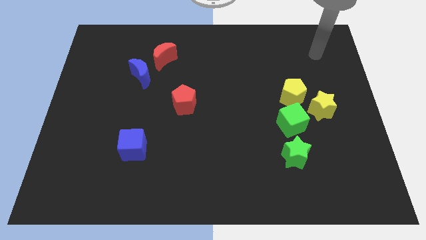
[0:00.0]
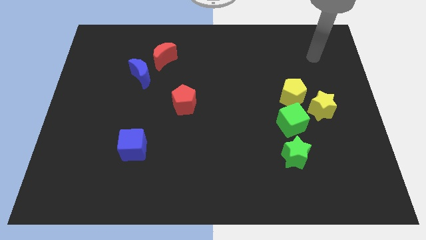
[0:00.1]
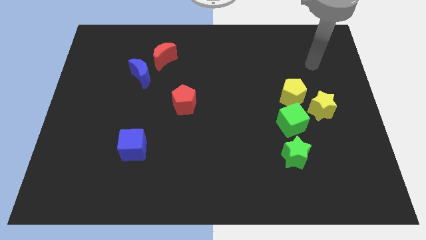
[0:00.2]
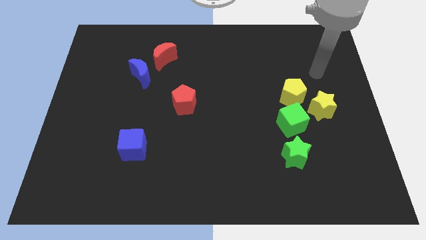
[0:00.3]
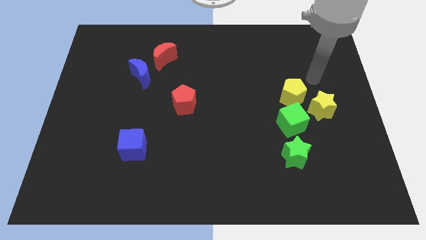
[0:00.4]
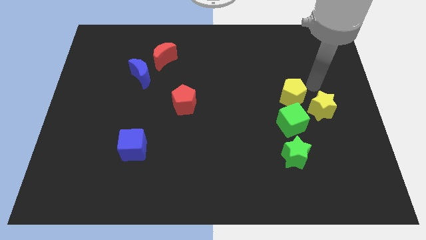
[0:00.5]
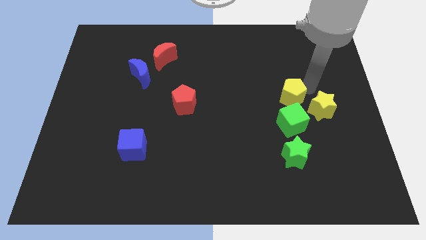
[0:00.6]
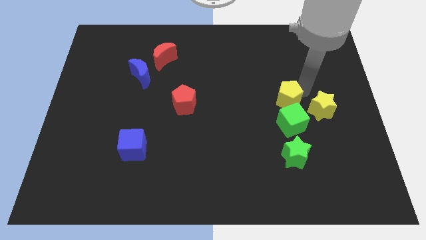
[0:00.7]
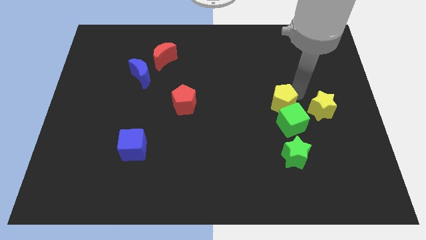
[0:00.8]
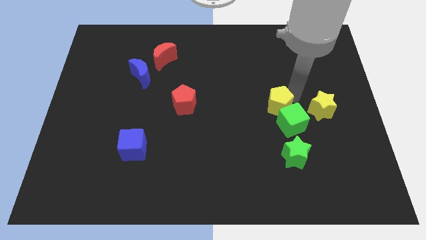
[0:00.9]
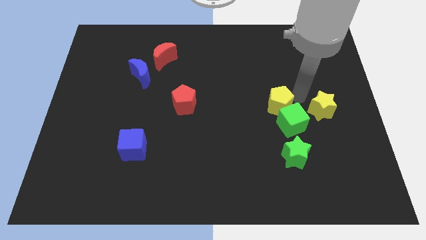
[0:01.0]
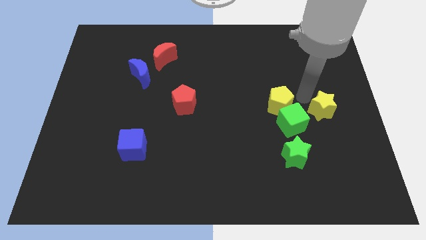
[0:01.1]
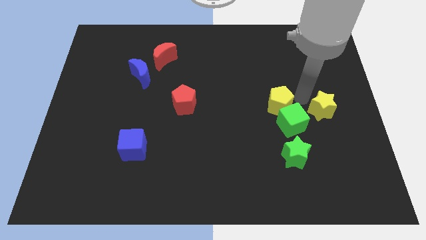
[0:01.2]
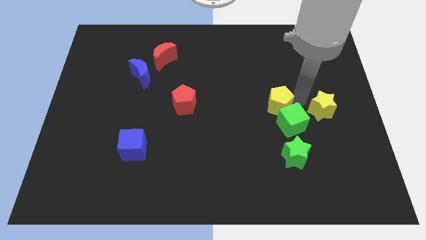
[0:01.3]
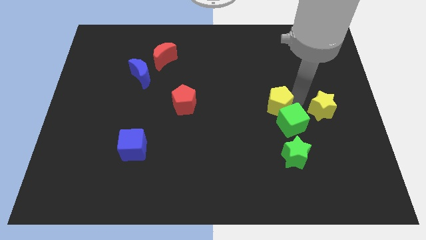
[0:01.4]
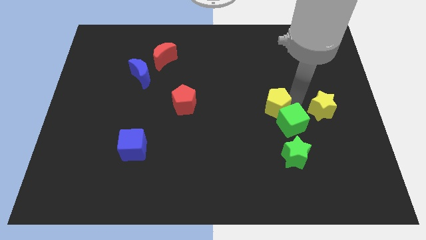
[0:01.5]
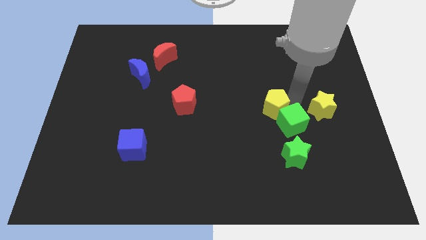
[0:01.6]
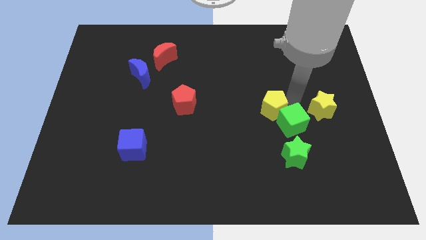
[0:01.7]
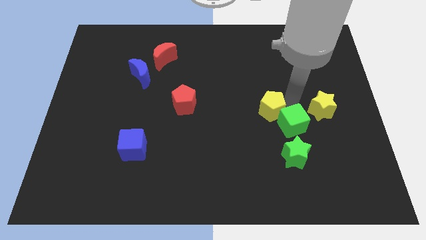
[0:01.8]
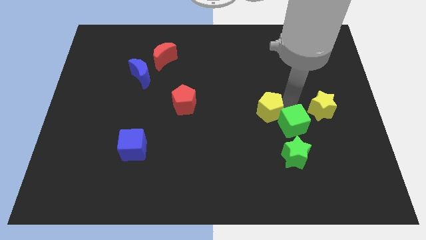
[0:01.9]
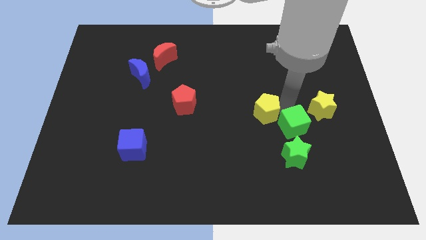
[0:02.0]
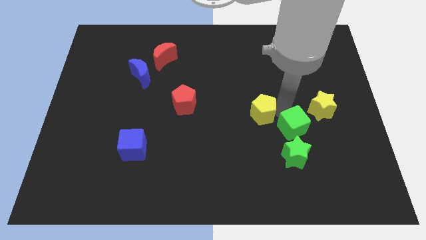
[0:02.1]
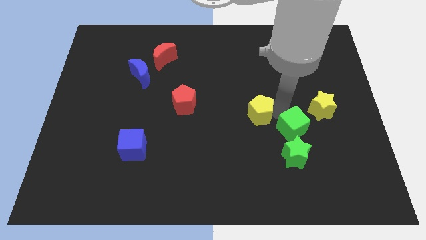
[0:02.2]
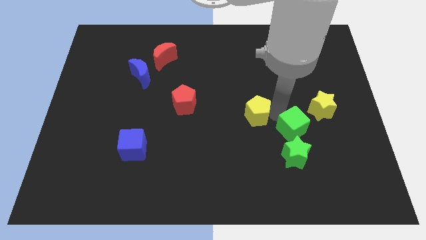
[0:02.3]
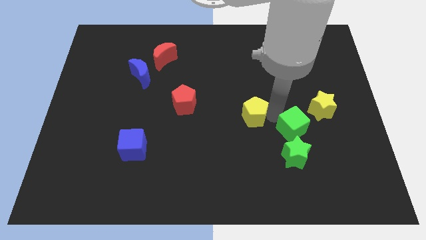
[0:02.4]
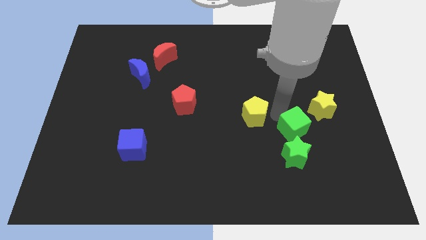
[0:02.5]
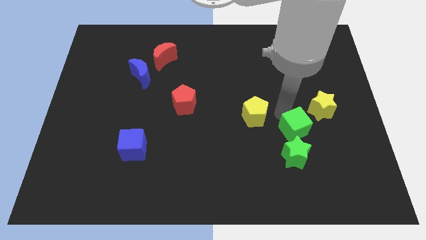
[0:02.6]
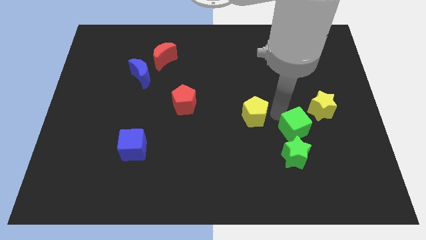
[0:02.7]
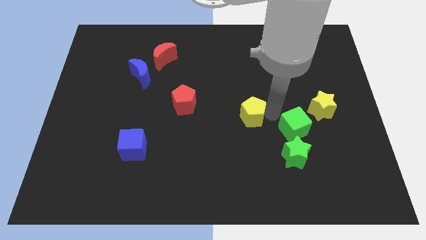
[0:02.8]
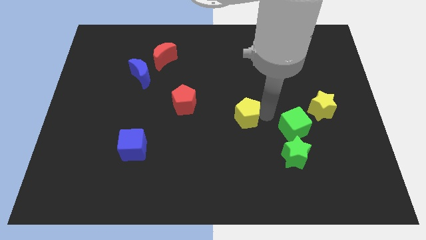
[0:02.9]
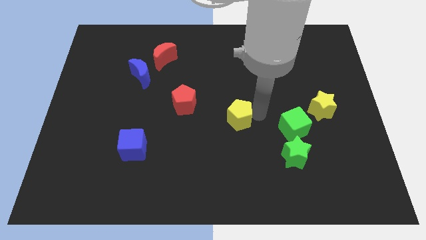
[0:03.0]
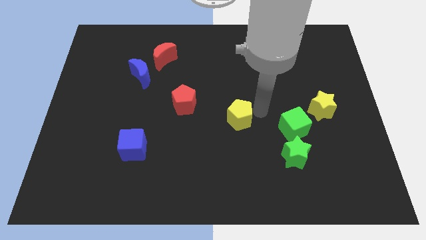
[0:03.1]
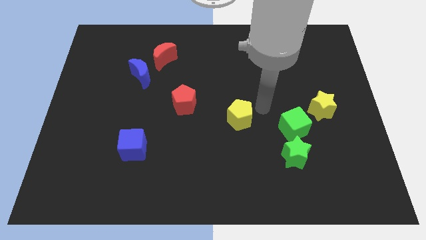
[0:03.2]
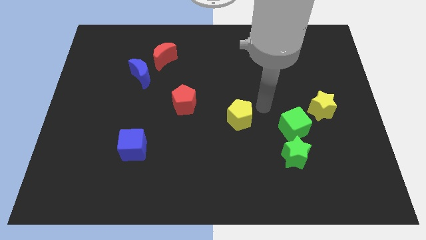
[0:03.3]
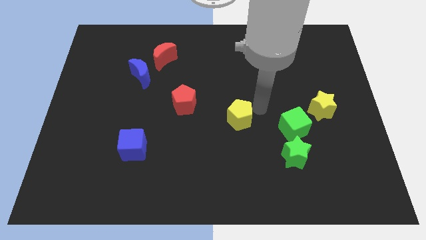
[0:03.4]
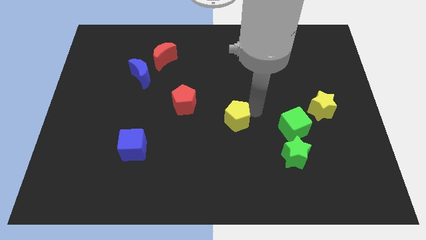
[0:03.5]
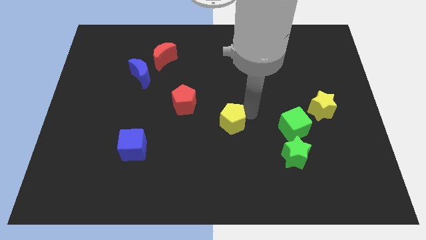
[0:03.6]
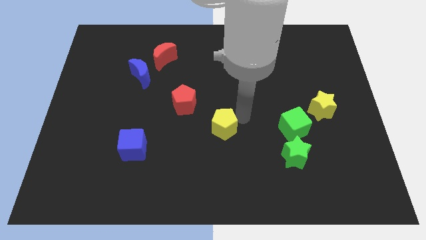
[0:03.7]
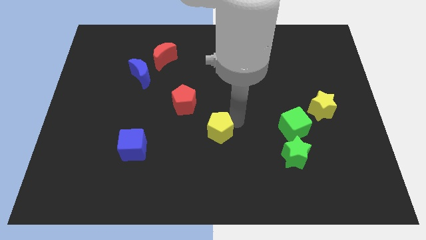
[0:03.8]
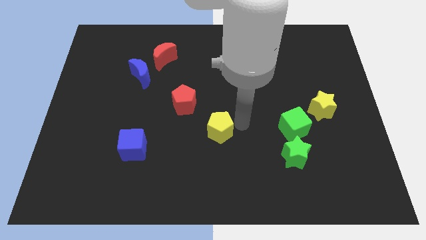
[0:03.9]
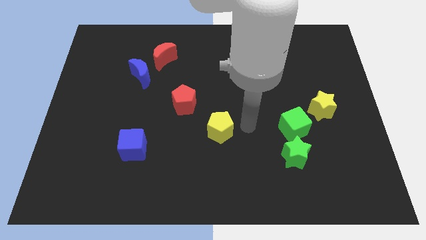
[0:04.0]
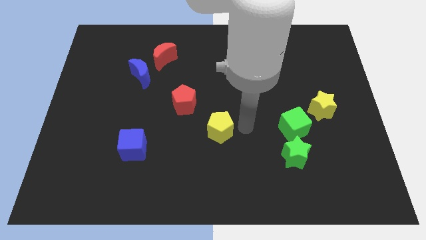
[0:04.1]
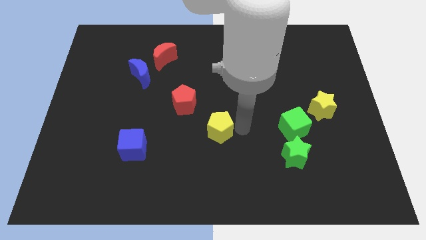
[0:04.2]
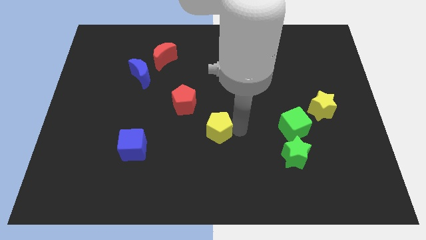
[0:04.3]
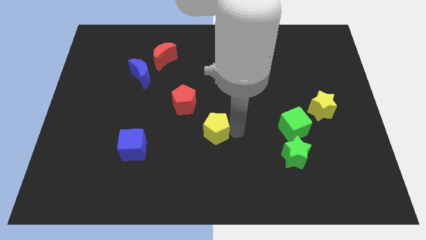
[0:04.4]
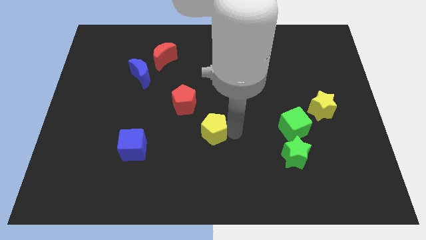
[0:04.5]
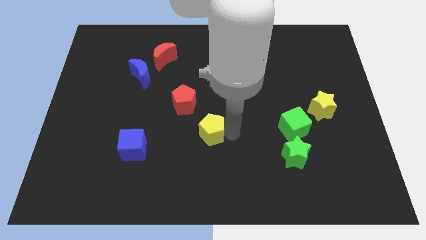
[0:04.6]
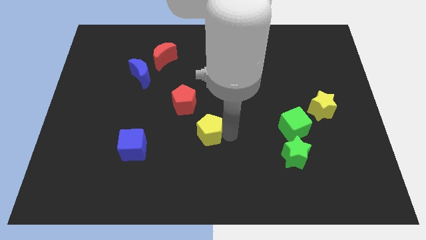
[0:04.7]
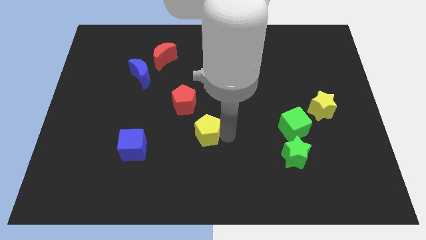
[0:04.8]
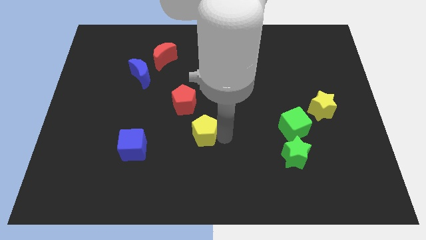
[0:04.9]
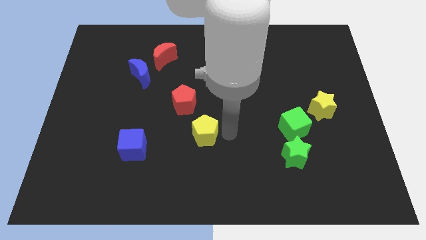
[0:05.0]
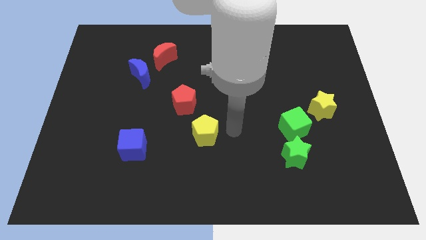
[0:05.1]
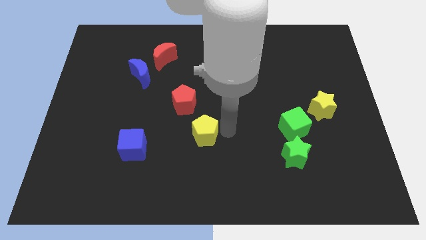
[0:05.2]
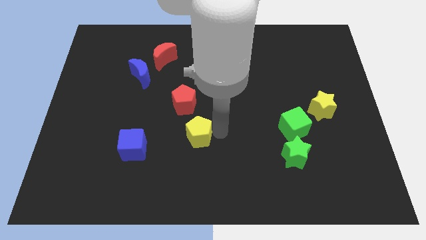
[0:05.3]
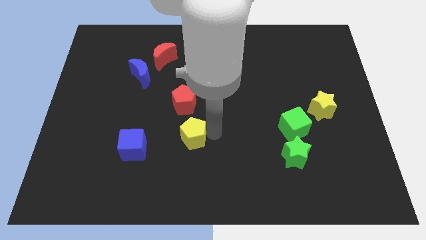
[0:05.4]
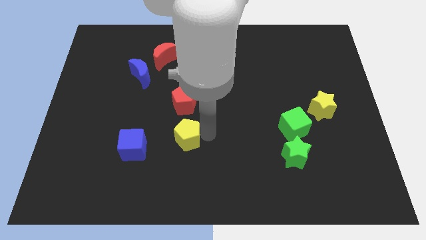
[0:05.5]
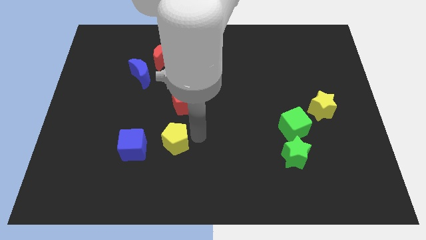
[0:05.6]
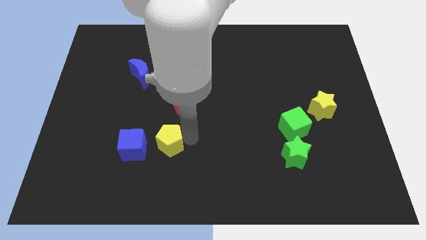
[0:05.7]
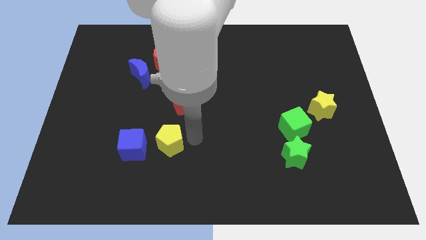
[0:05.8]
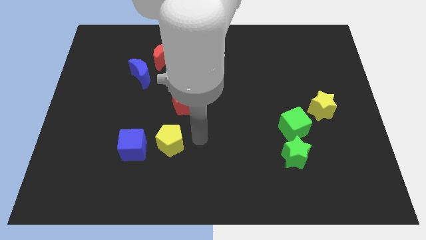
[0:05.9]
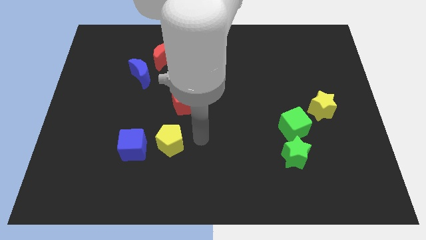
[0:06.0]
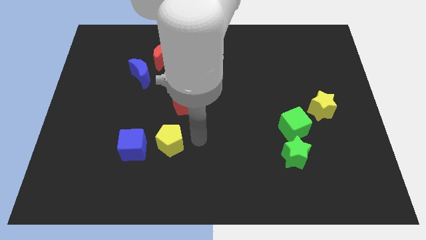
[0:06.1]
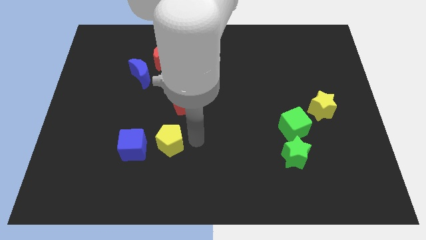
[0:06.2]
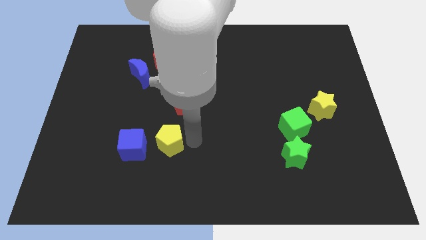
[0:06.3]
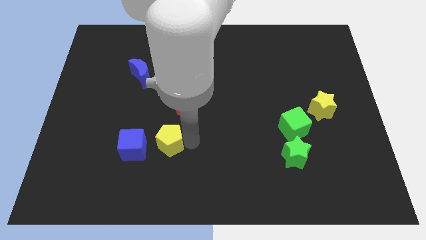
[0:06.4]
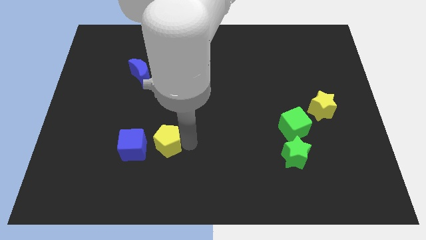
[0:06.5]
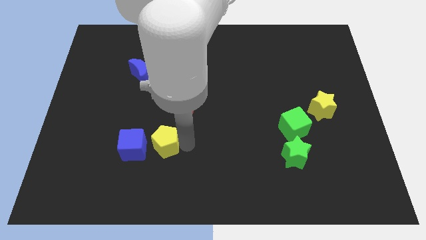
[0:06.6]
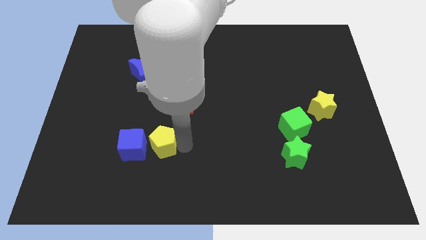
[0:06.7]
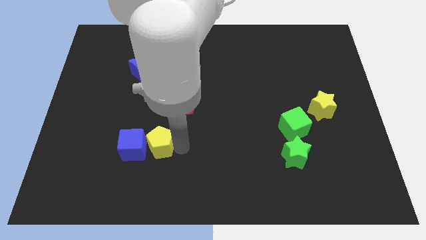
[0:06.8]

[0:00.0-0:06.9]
slide the yellow pentagon next to the blue cube
